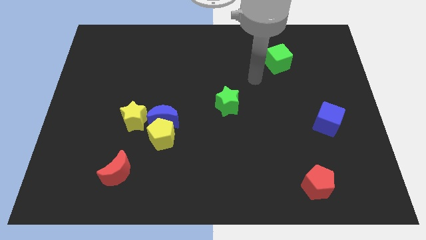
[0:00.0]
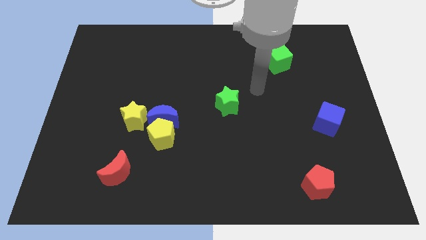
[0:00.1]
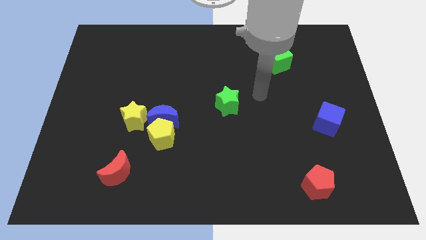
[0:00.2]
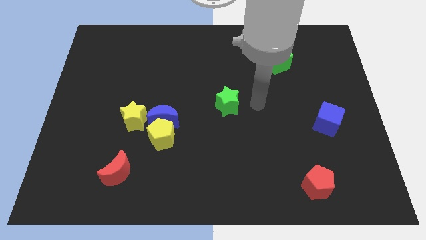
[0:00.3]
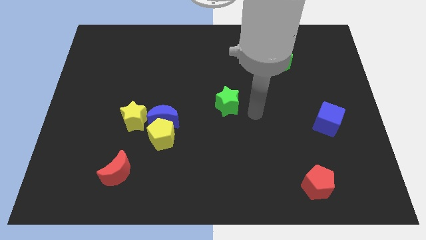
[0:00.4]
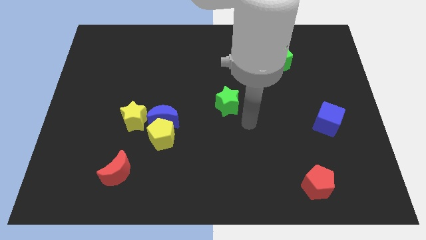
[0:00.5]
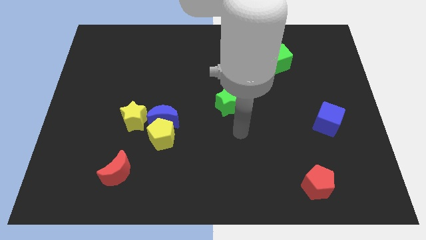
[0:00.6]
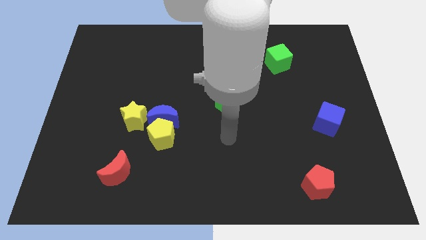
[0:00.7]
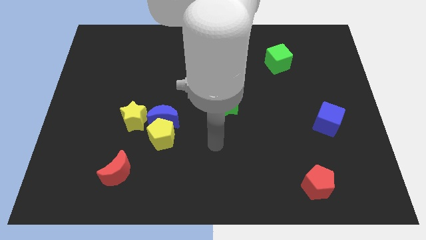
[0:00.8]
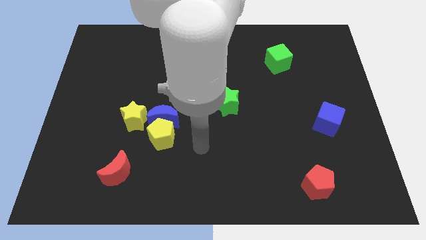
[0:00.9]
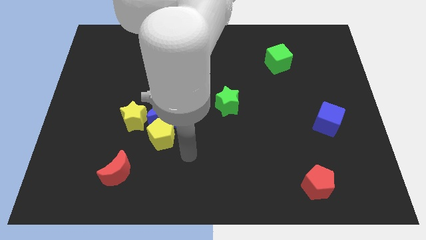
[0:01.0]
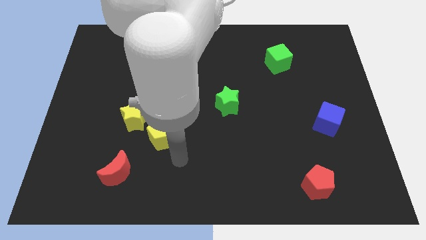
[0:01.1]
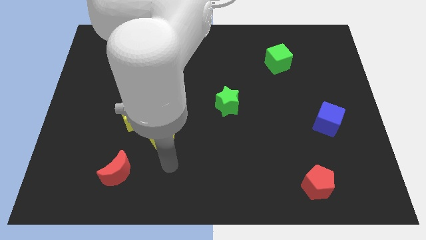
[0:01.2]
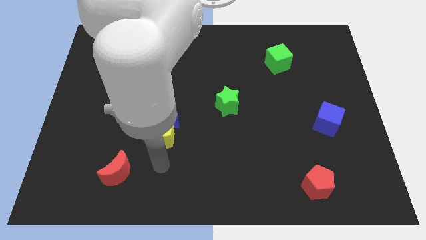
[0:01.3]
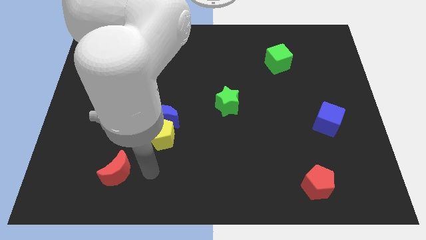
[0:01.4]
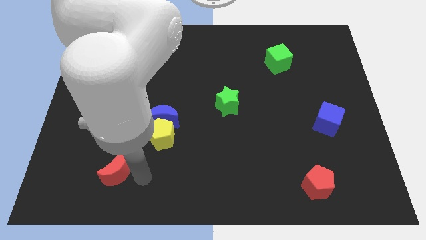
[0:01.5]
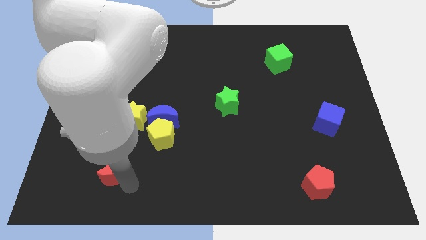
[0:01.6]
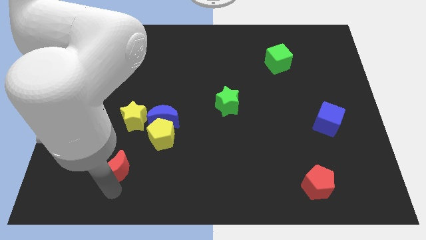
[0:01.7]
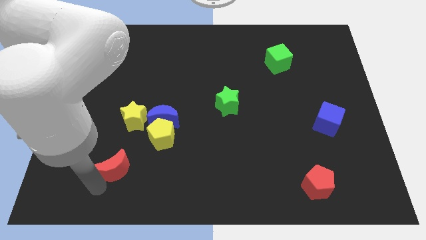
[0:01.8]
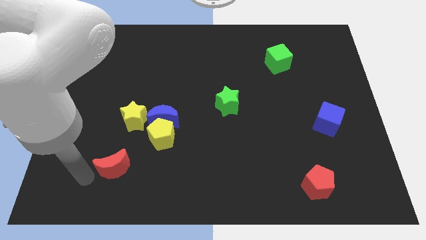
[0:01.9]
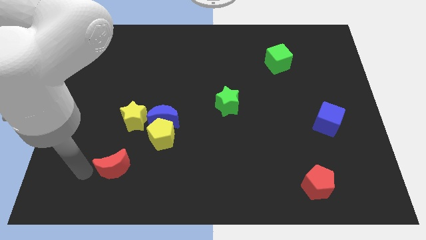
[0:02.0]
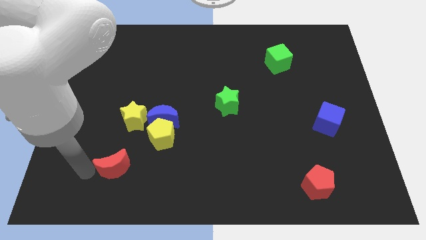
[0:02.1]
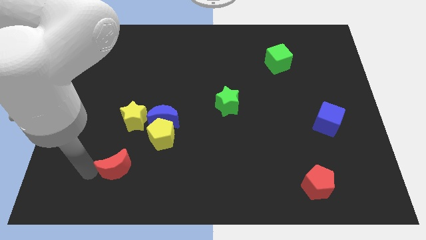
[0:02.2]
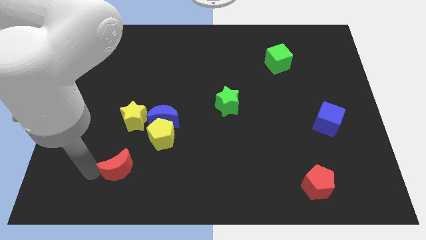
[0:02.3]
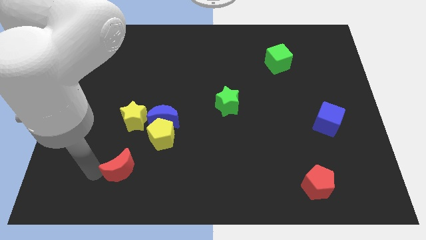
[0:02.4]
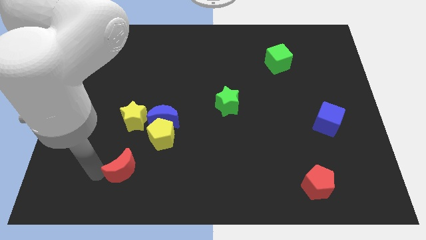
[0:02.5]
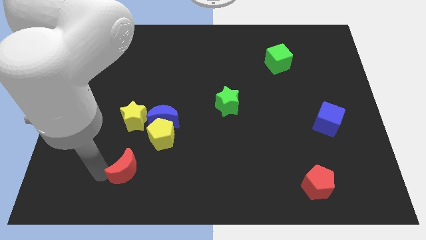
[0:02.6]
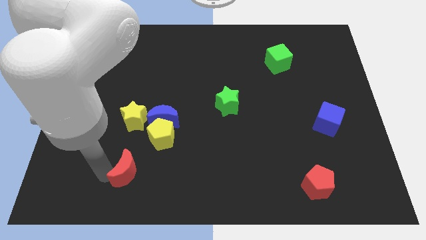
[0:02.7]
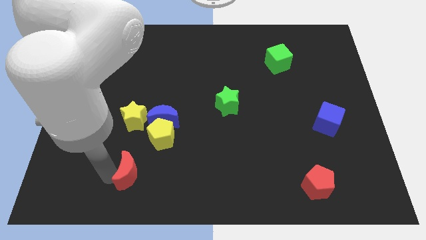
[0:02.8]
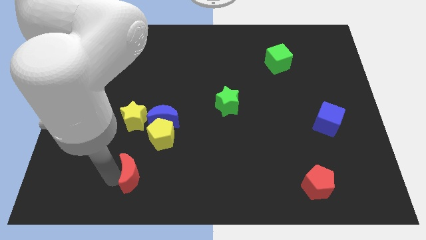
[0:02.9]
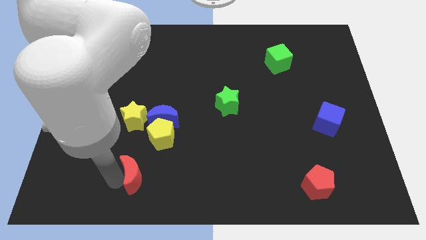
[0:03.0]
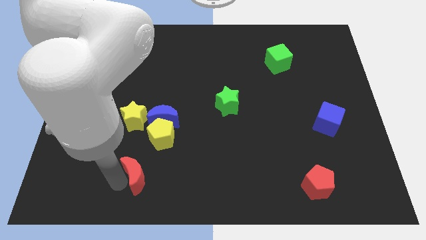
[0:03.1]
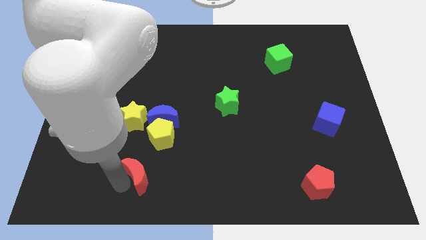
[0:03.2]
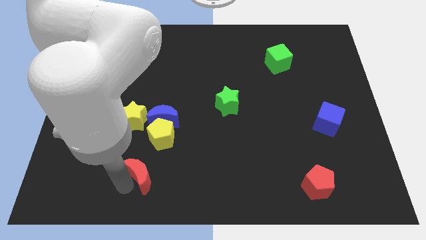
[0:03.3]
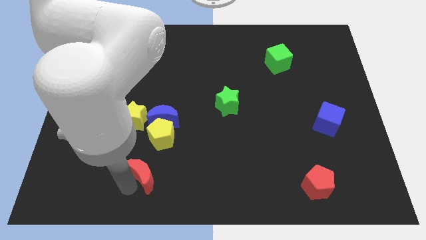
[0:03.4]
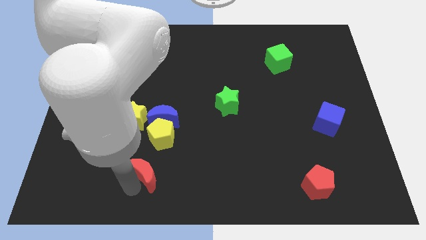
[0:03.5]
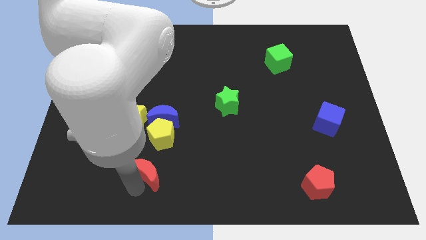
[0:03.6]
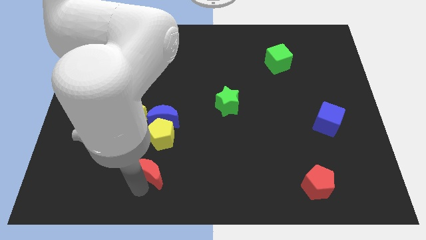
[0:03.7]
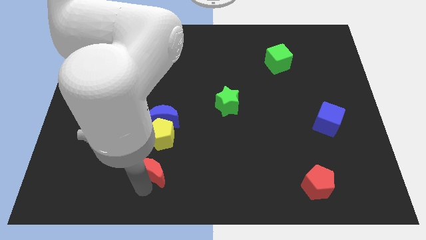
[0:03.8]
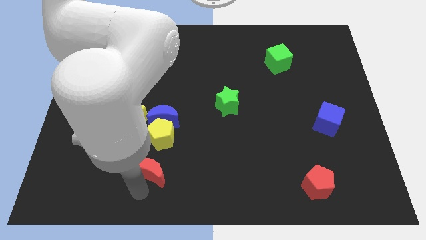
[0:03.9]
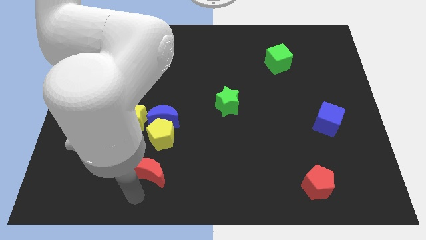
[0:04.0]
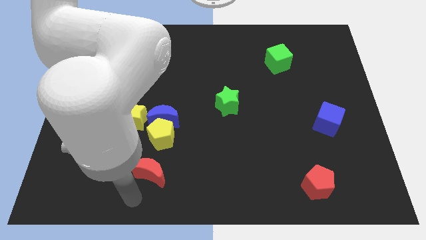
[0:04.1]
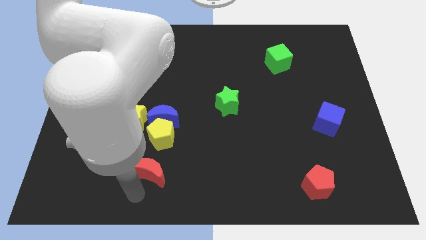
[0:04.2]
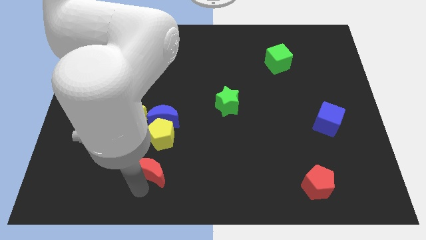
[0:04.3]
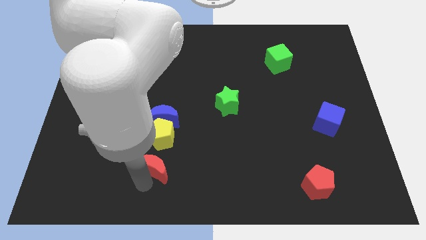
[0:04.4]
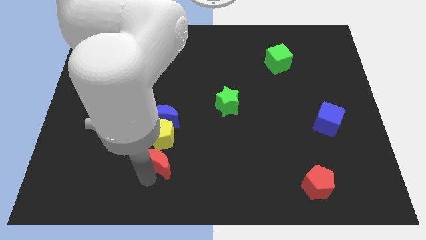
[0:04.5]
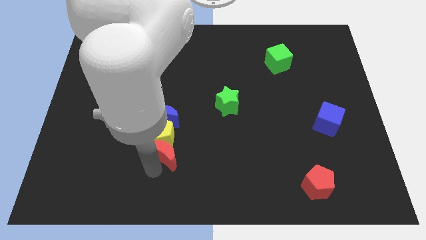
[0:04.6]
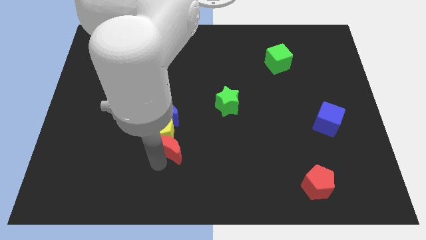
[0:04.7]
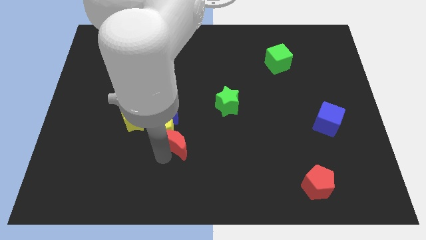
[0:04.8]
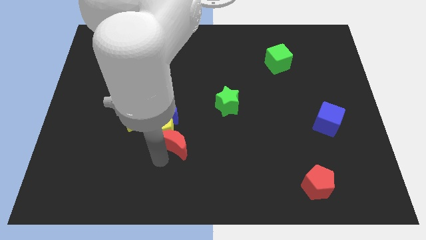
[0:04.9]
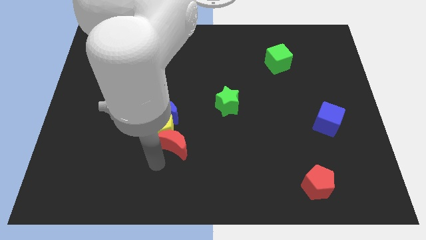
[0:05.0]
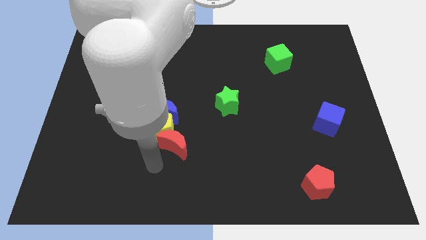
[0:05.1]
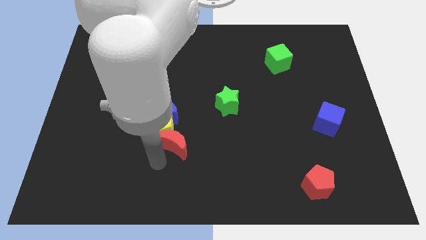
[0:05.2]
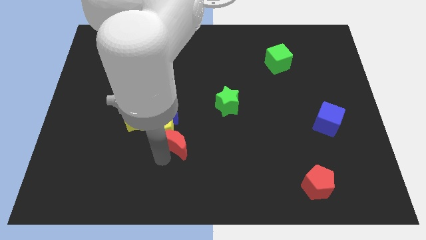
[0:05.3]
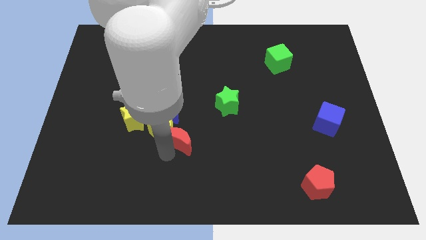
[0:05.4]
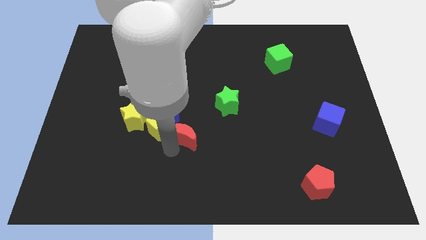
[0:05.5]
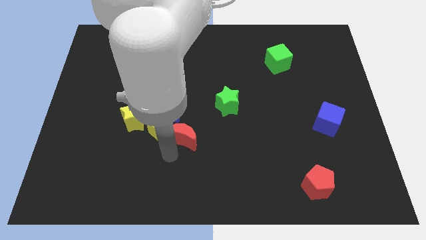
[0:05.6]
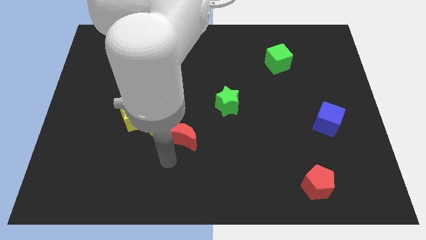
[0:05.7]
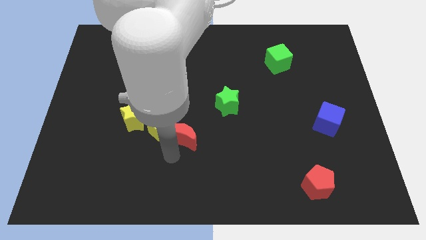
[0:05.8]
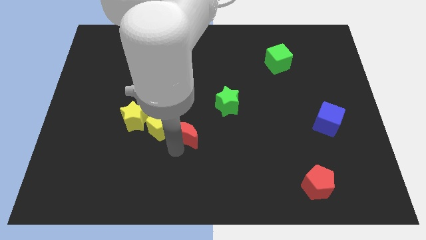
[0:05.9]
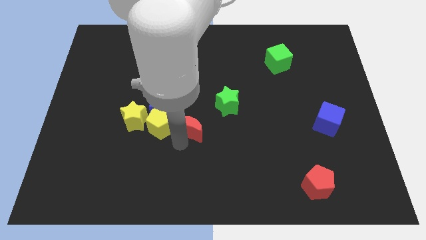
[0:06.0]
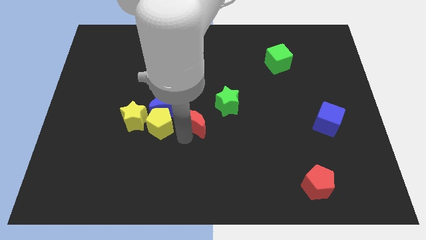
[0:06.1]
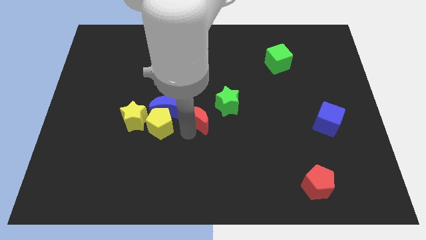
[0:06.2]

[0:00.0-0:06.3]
move the red moon upwards and then to the right

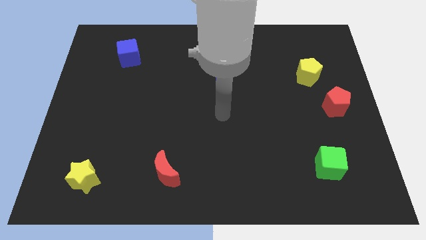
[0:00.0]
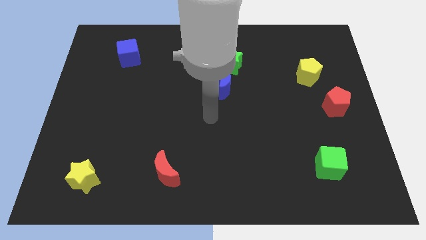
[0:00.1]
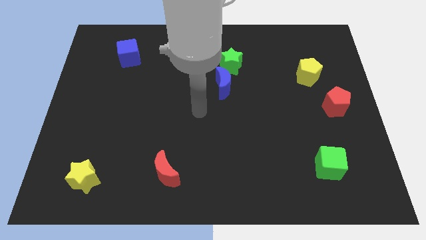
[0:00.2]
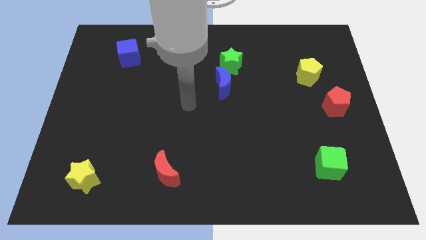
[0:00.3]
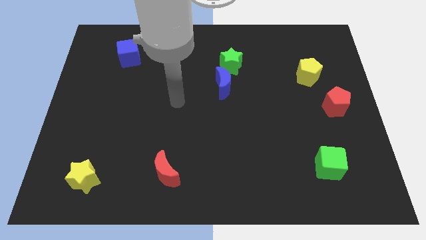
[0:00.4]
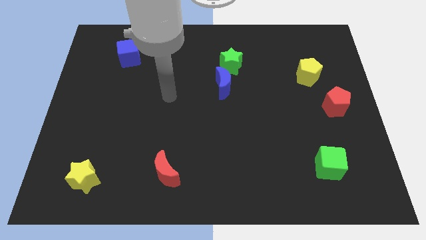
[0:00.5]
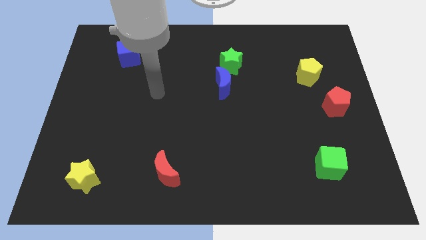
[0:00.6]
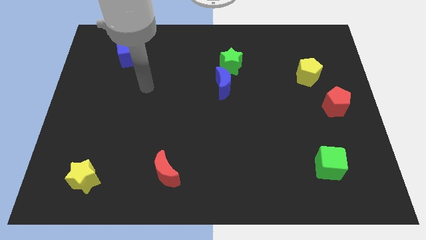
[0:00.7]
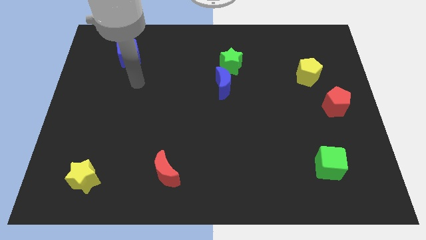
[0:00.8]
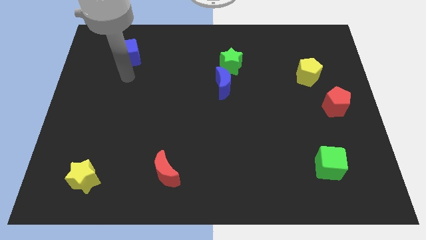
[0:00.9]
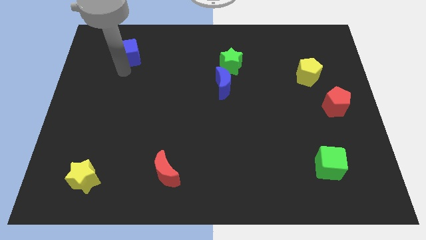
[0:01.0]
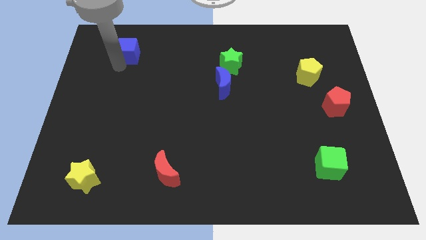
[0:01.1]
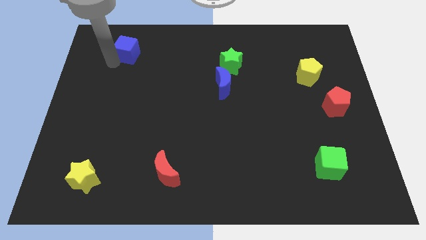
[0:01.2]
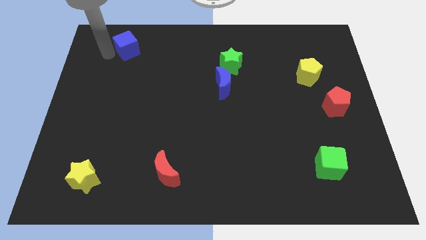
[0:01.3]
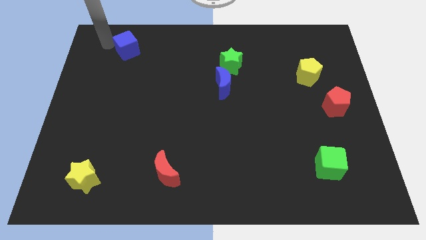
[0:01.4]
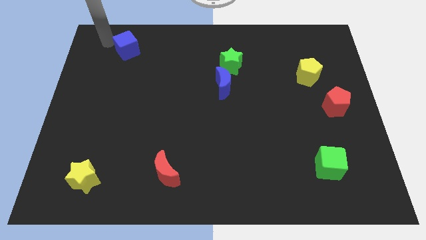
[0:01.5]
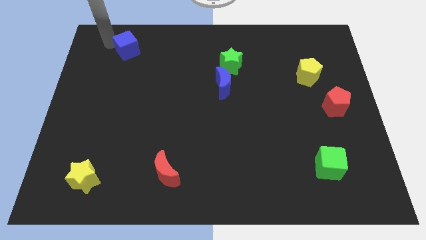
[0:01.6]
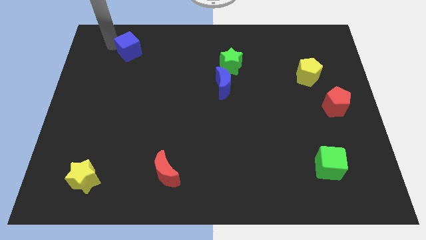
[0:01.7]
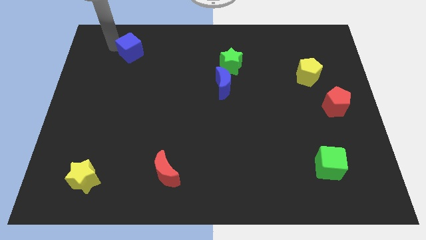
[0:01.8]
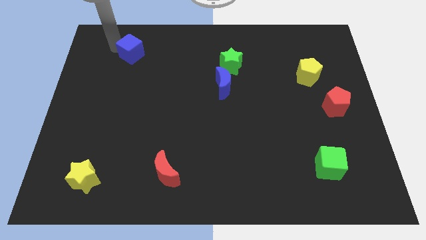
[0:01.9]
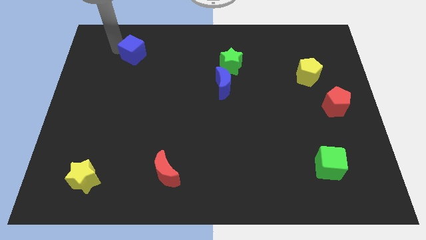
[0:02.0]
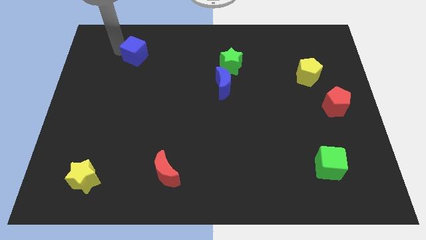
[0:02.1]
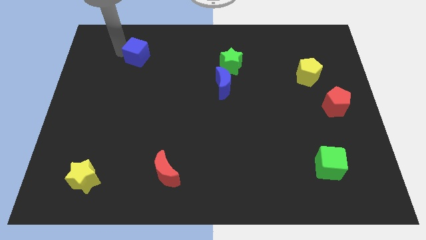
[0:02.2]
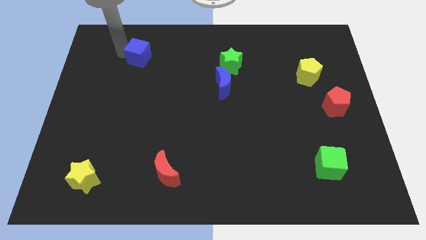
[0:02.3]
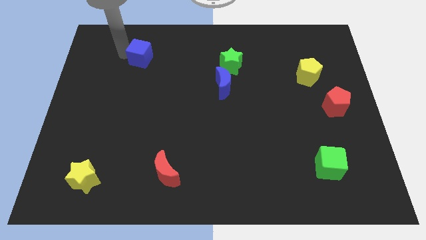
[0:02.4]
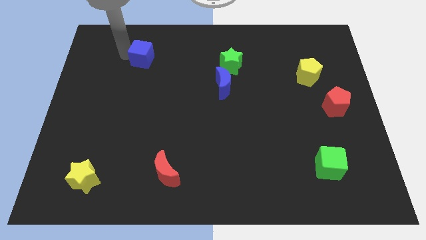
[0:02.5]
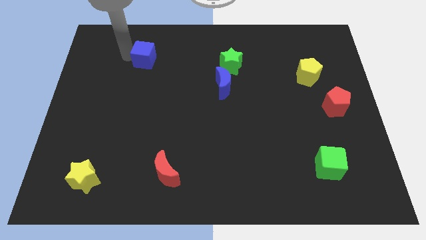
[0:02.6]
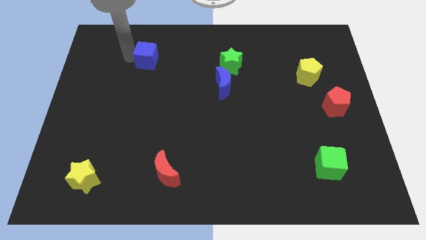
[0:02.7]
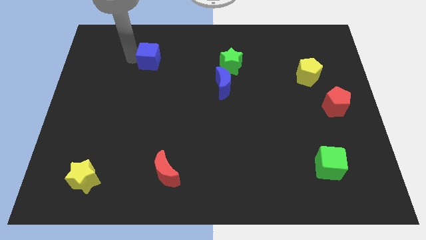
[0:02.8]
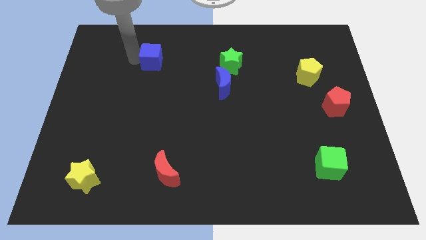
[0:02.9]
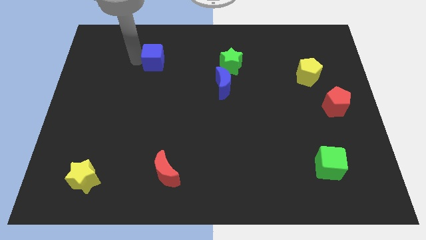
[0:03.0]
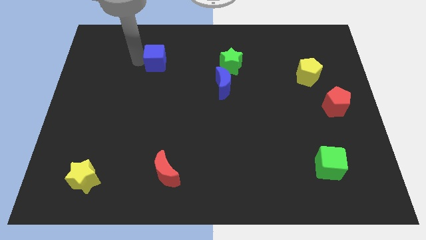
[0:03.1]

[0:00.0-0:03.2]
move the blue cube slightly right
